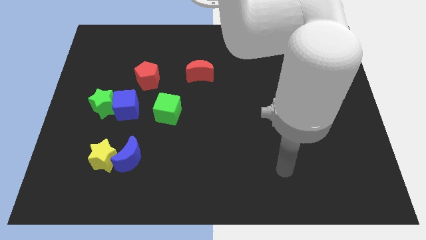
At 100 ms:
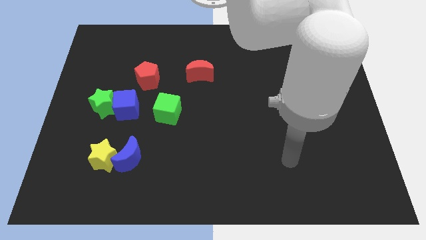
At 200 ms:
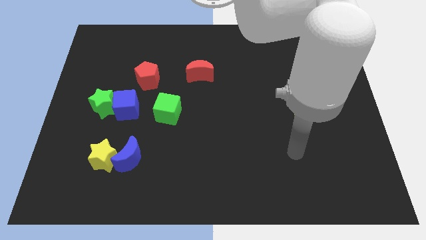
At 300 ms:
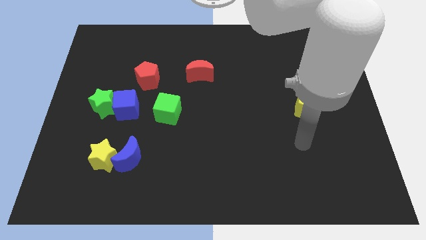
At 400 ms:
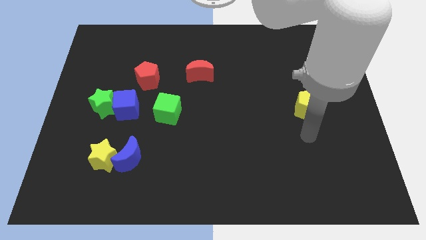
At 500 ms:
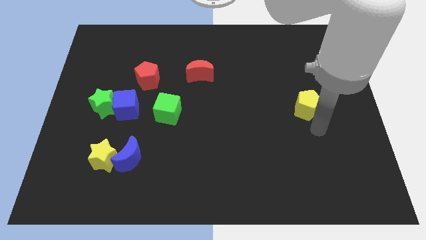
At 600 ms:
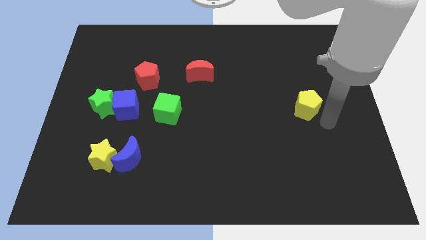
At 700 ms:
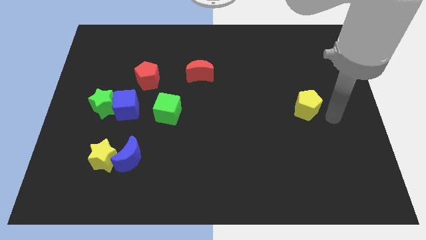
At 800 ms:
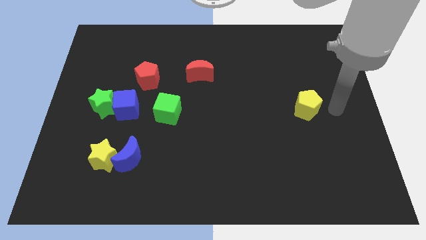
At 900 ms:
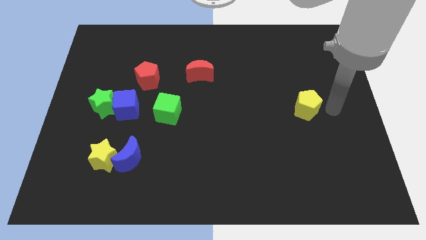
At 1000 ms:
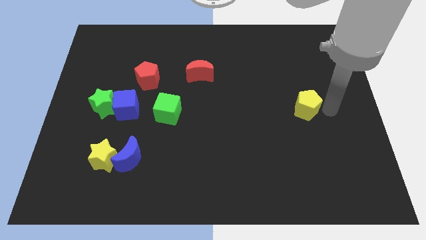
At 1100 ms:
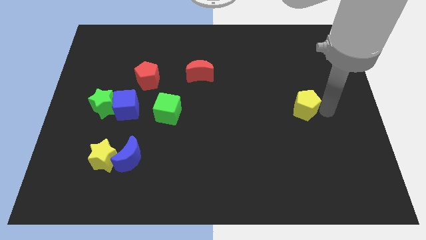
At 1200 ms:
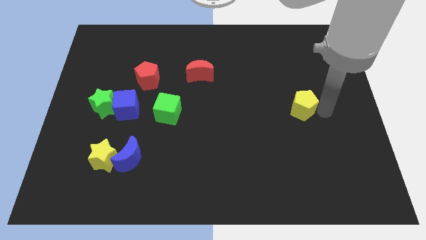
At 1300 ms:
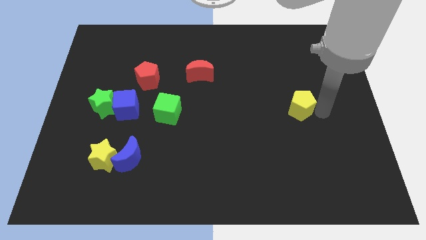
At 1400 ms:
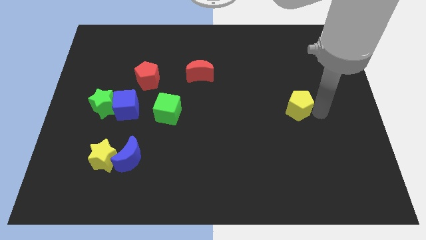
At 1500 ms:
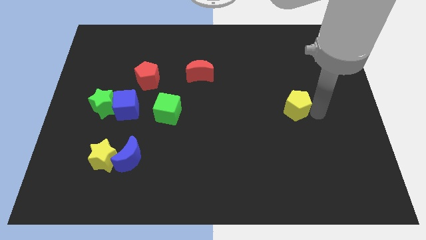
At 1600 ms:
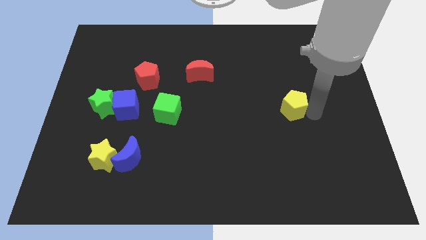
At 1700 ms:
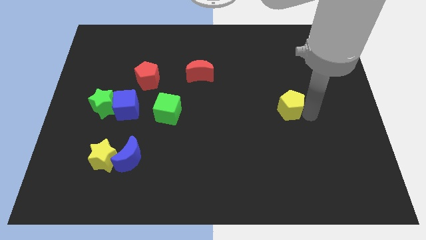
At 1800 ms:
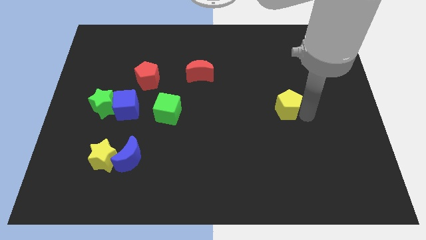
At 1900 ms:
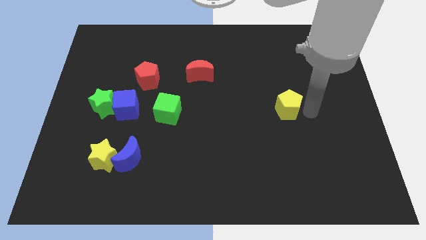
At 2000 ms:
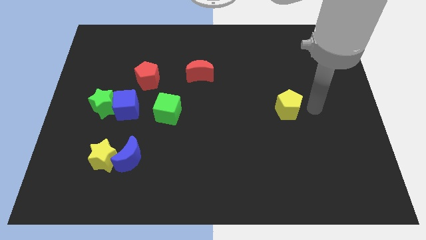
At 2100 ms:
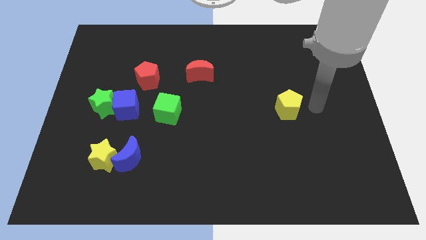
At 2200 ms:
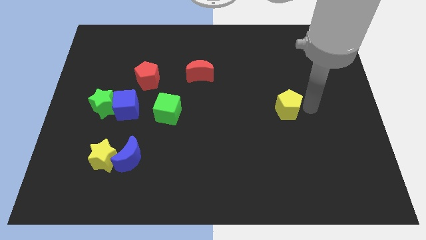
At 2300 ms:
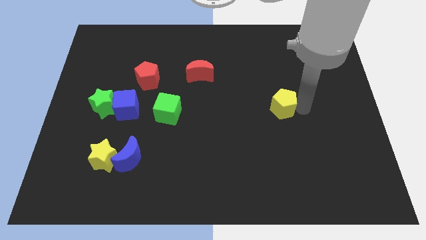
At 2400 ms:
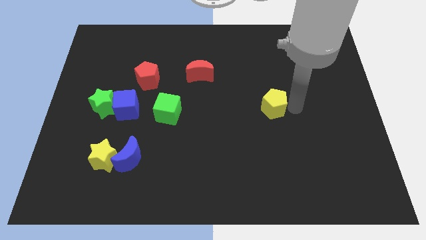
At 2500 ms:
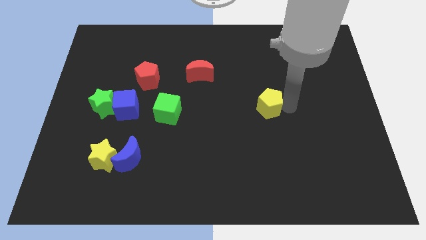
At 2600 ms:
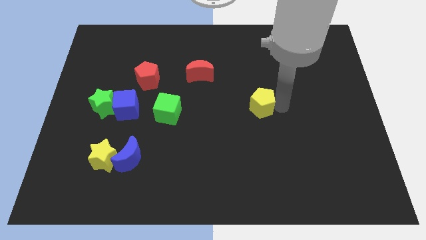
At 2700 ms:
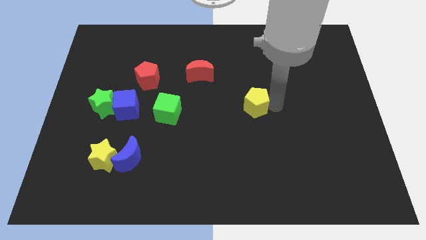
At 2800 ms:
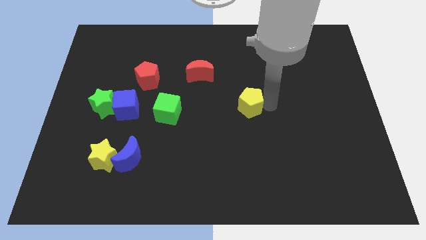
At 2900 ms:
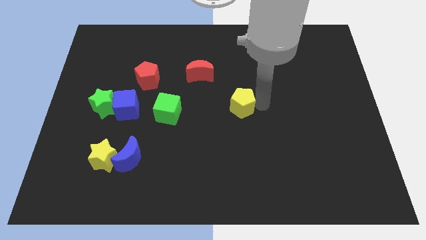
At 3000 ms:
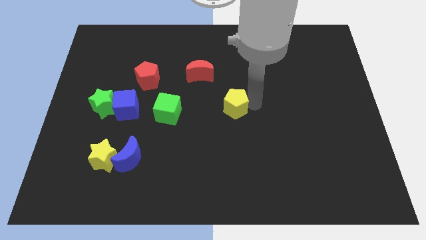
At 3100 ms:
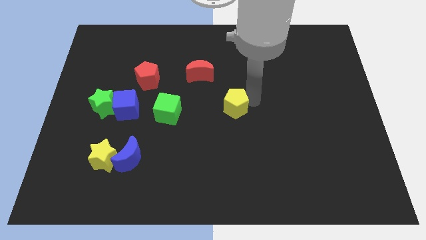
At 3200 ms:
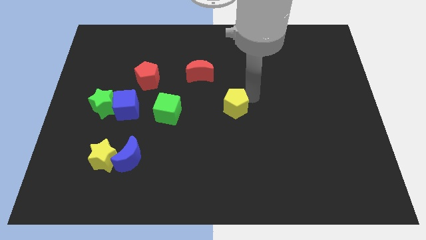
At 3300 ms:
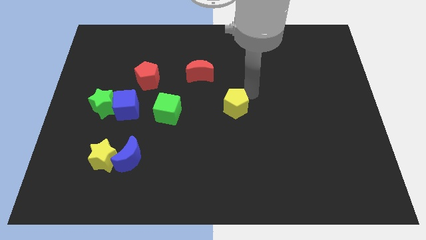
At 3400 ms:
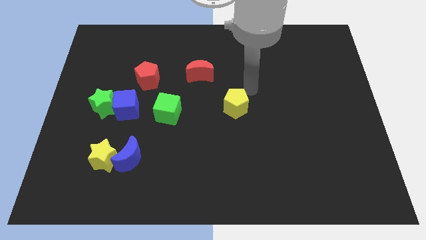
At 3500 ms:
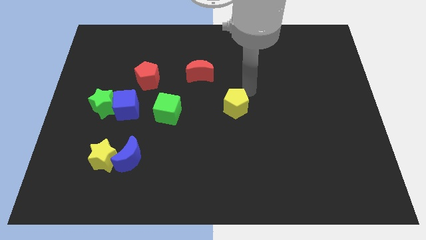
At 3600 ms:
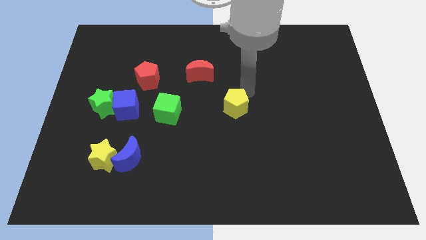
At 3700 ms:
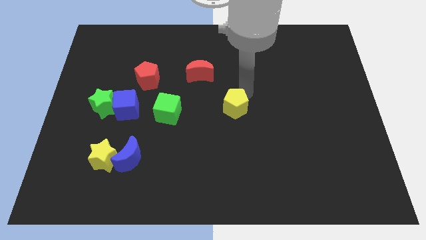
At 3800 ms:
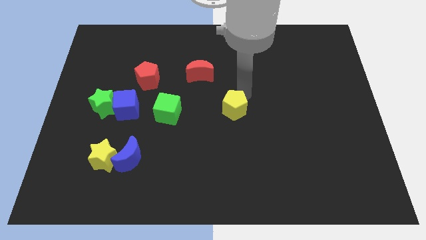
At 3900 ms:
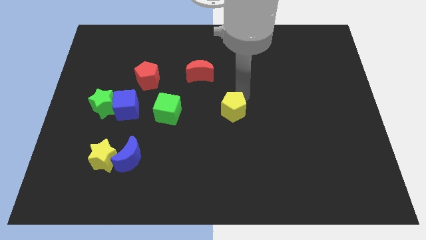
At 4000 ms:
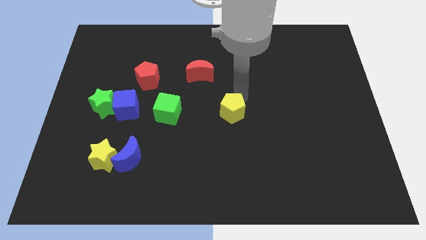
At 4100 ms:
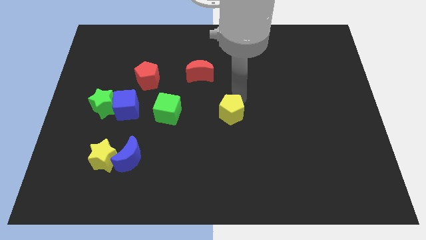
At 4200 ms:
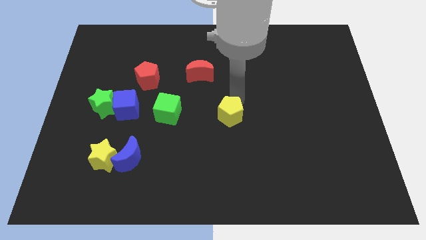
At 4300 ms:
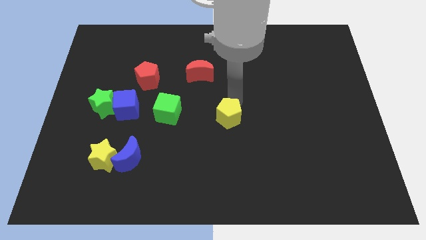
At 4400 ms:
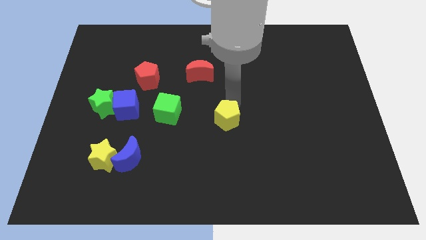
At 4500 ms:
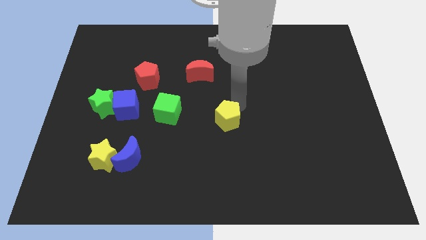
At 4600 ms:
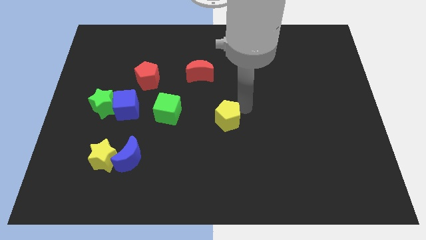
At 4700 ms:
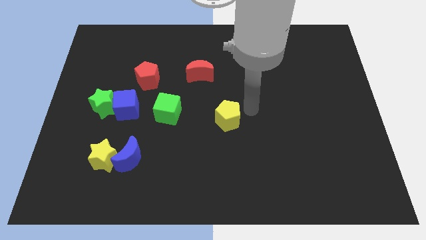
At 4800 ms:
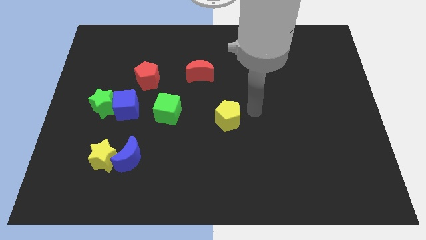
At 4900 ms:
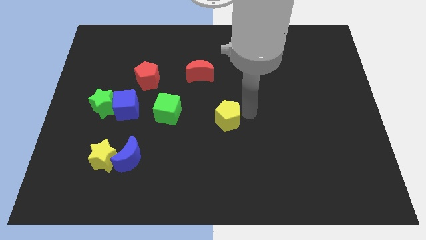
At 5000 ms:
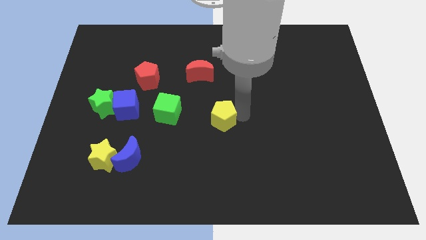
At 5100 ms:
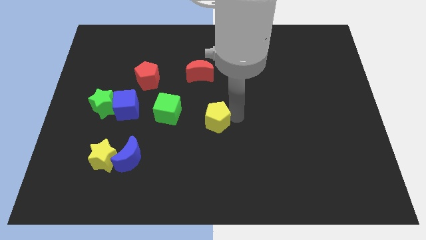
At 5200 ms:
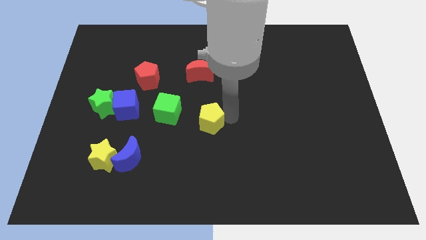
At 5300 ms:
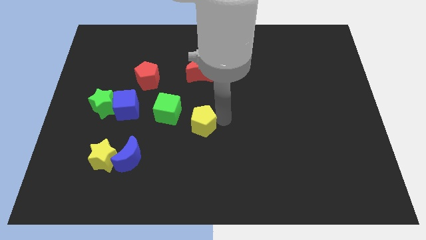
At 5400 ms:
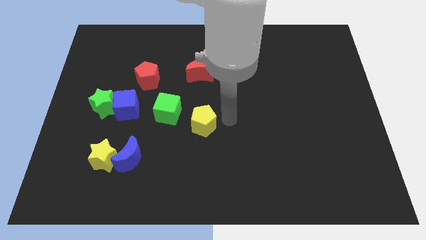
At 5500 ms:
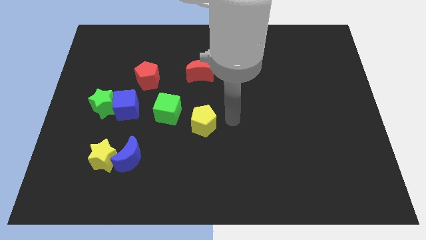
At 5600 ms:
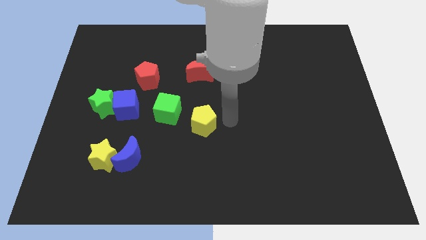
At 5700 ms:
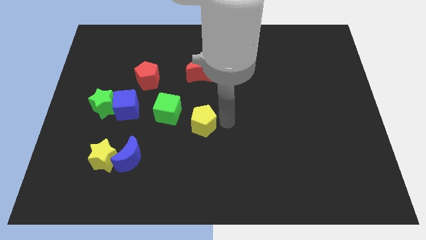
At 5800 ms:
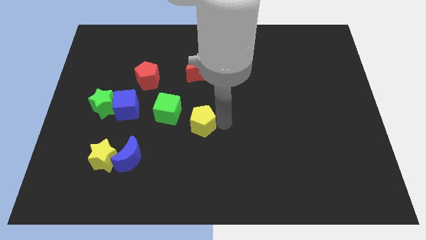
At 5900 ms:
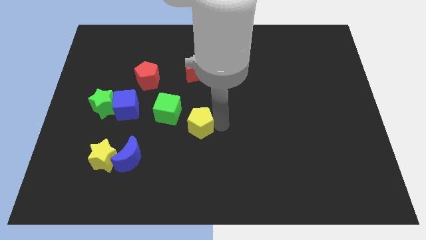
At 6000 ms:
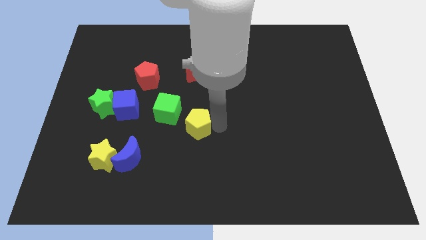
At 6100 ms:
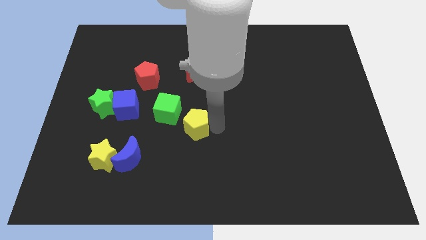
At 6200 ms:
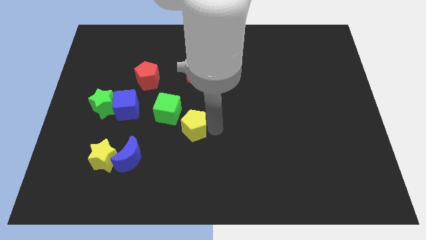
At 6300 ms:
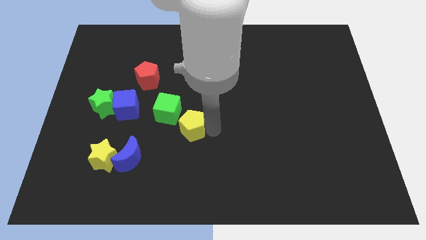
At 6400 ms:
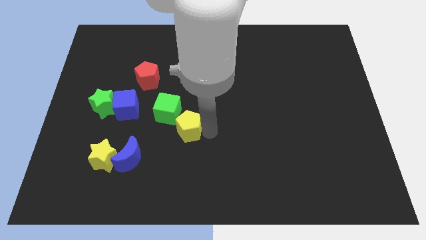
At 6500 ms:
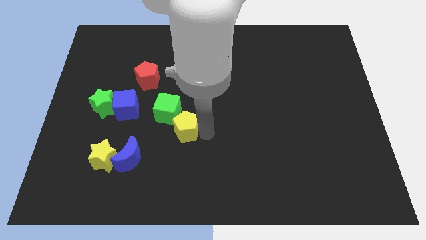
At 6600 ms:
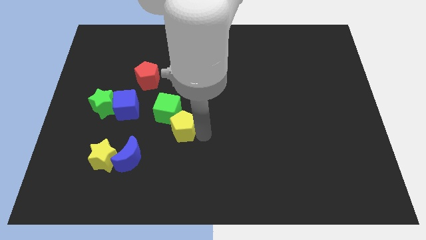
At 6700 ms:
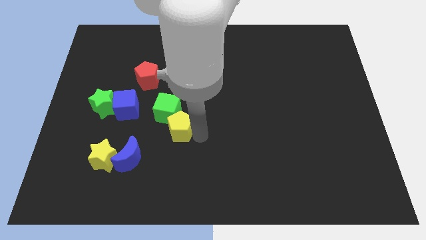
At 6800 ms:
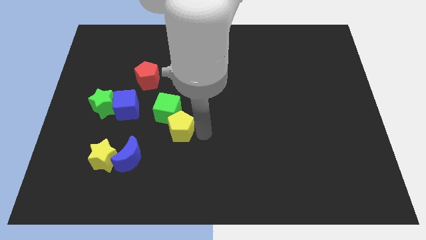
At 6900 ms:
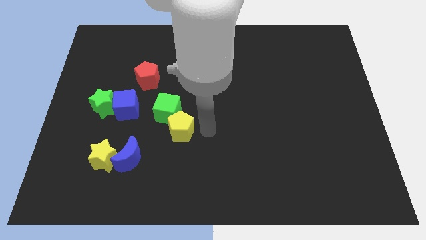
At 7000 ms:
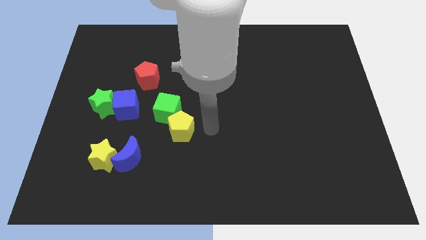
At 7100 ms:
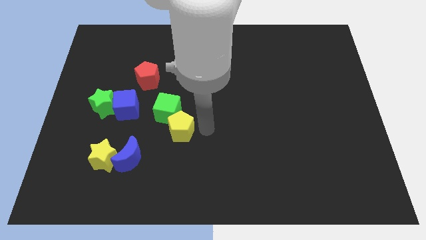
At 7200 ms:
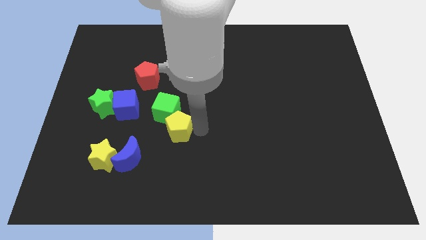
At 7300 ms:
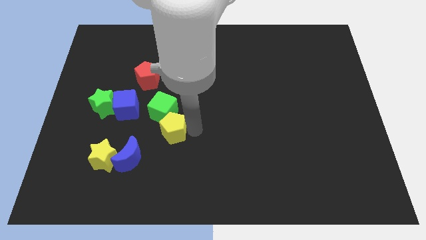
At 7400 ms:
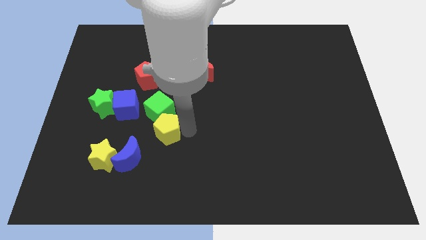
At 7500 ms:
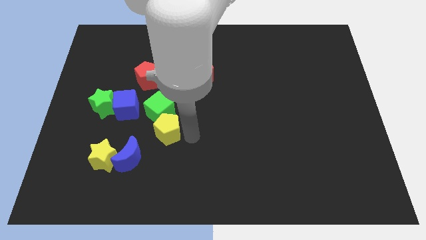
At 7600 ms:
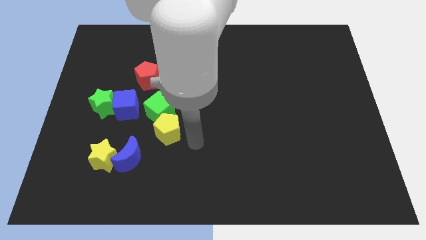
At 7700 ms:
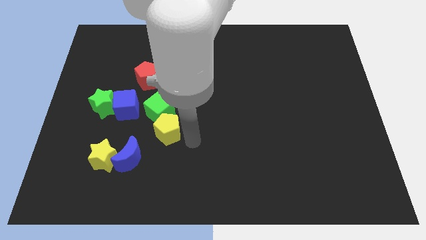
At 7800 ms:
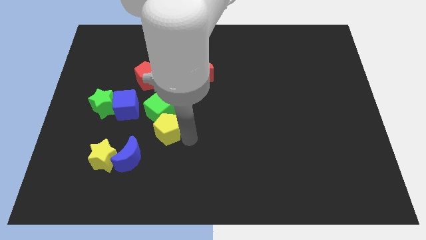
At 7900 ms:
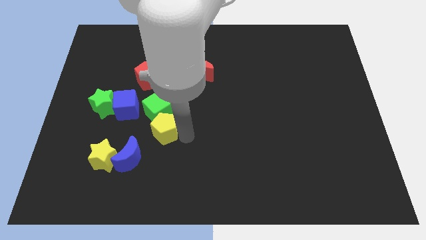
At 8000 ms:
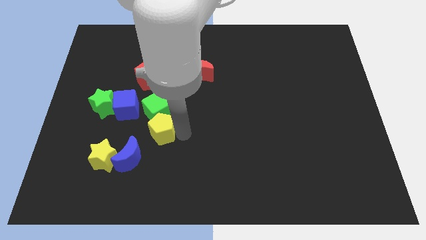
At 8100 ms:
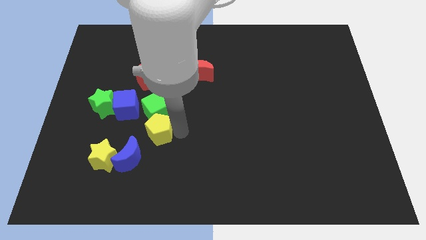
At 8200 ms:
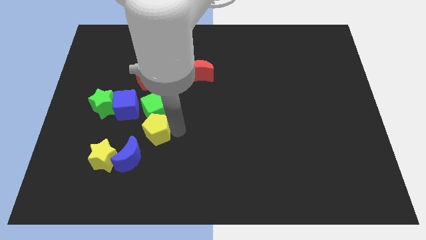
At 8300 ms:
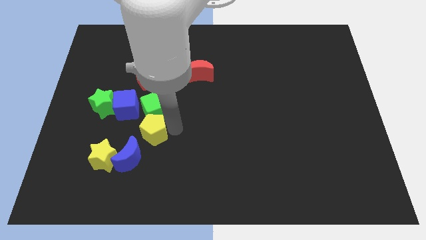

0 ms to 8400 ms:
slide the yellow pentagon to the top side of the blue moon
